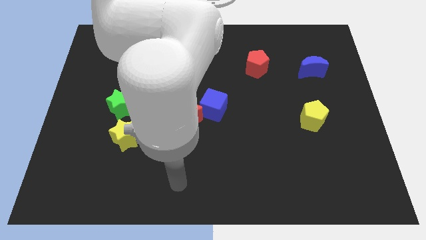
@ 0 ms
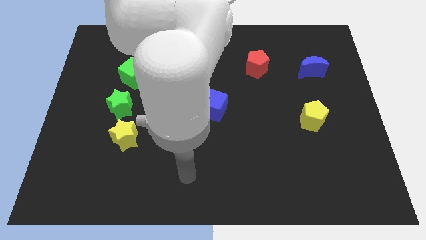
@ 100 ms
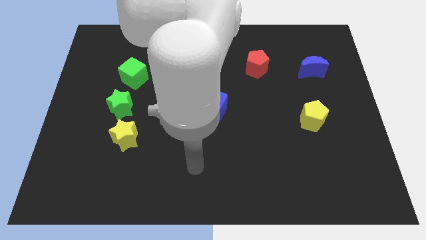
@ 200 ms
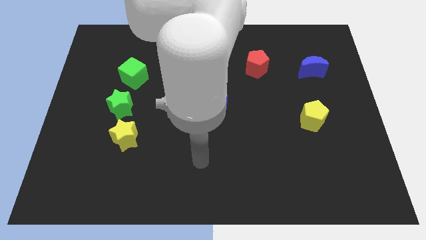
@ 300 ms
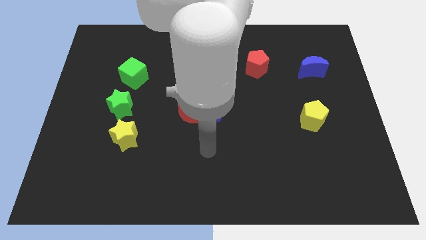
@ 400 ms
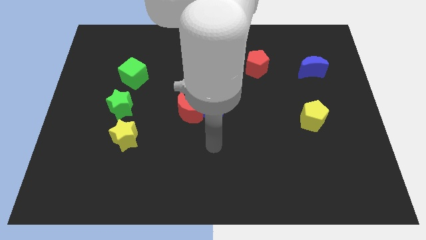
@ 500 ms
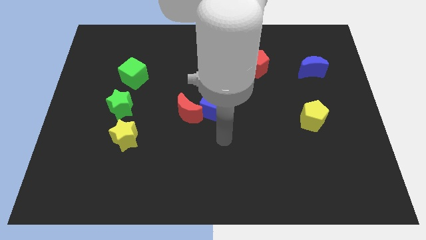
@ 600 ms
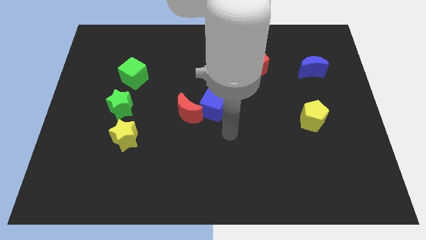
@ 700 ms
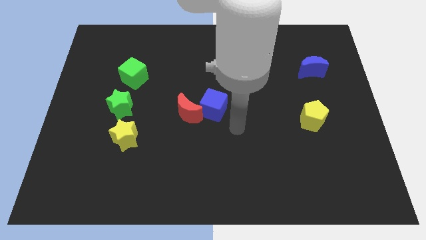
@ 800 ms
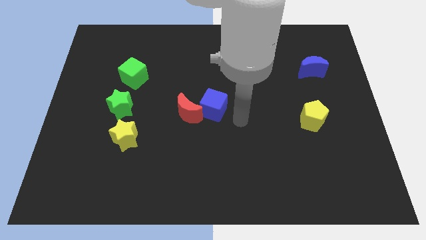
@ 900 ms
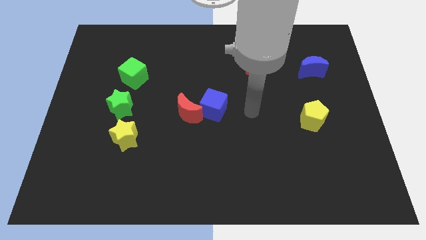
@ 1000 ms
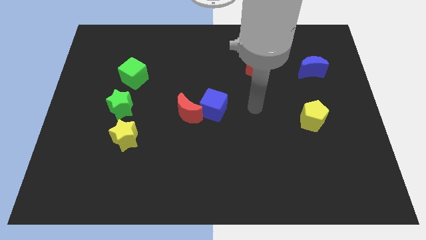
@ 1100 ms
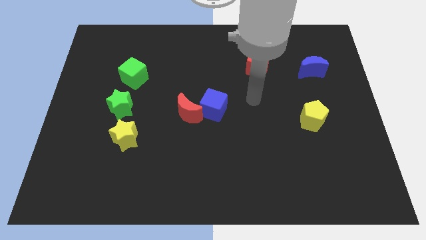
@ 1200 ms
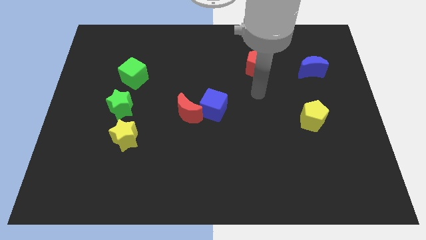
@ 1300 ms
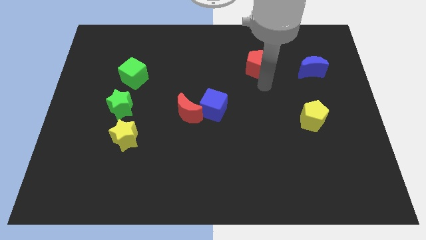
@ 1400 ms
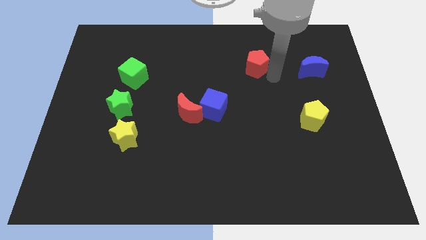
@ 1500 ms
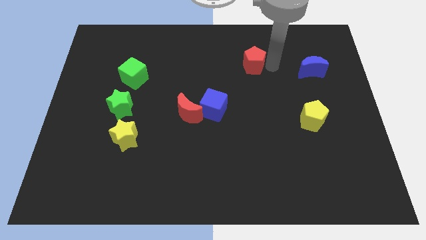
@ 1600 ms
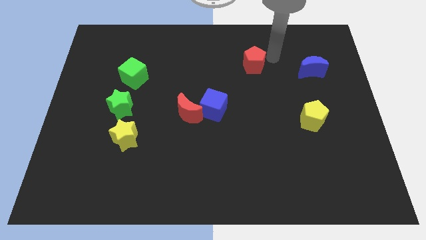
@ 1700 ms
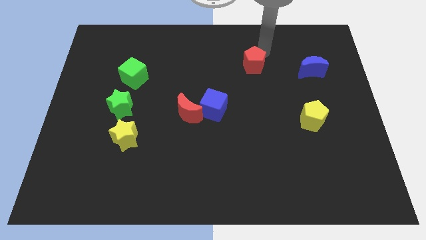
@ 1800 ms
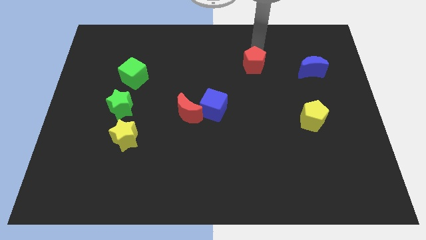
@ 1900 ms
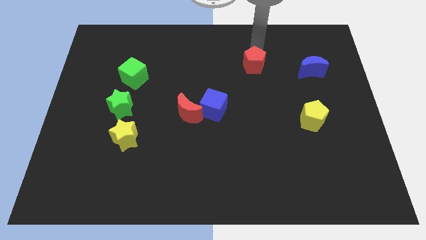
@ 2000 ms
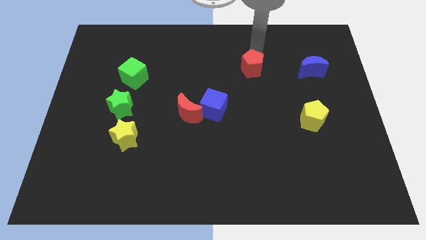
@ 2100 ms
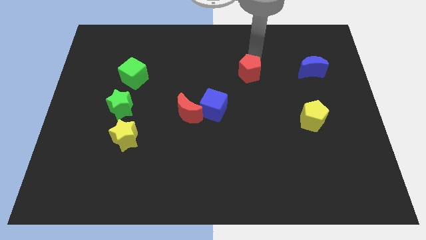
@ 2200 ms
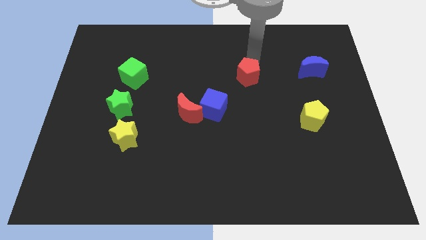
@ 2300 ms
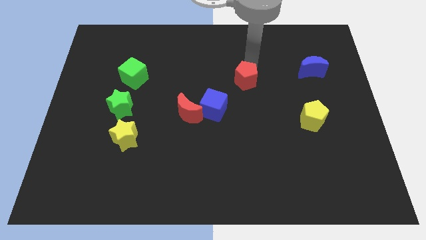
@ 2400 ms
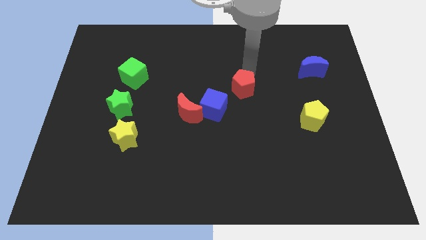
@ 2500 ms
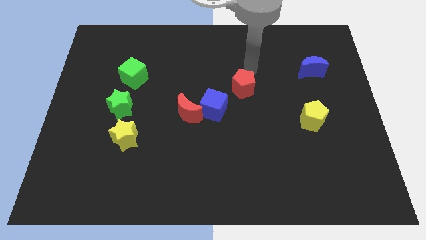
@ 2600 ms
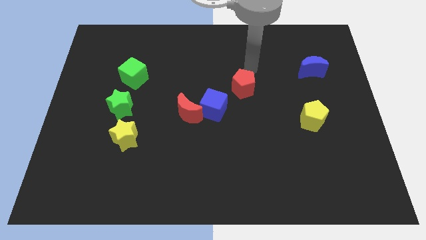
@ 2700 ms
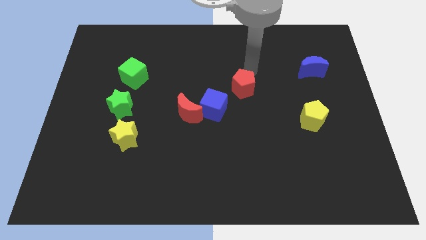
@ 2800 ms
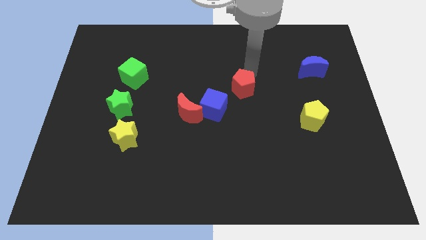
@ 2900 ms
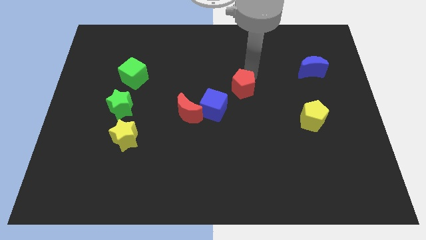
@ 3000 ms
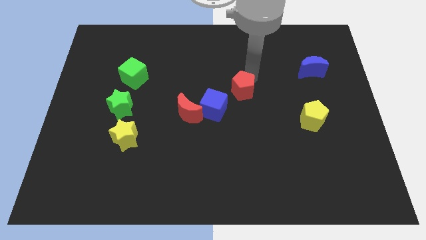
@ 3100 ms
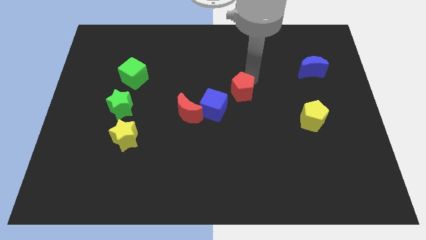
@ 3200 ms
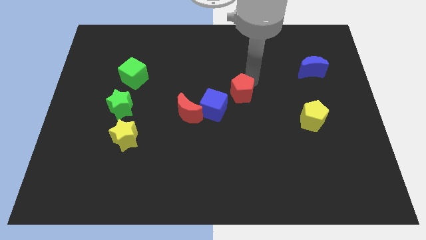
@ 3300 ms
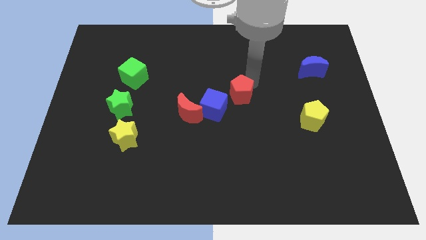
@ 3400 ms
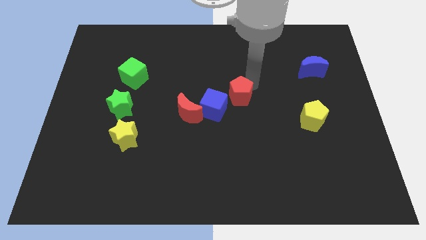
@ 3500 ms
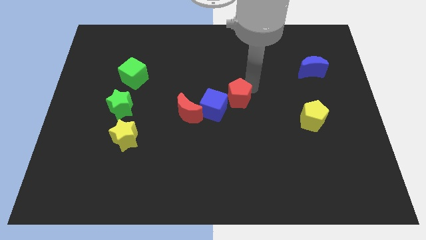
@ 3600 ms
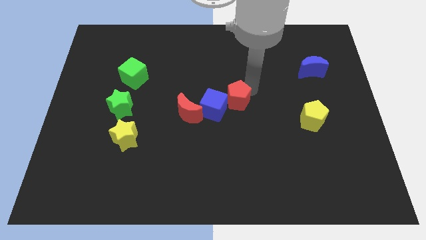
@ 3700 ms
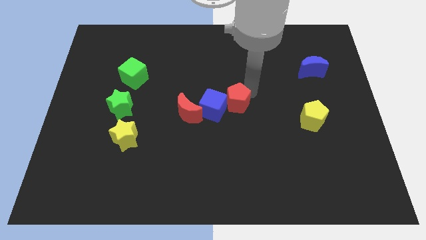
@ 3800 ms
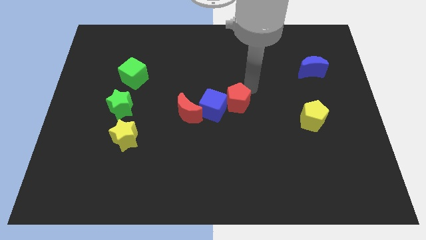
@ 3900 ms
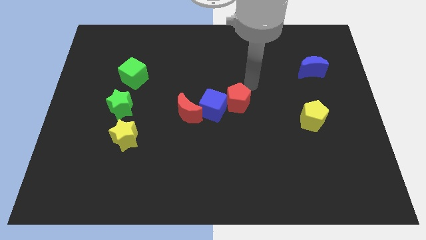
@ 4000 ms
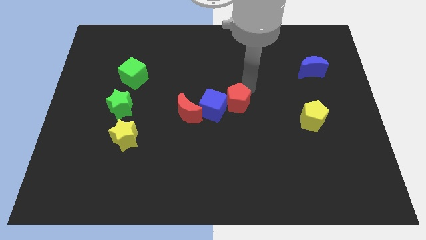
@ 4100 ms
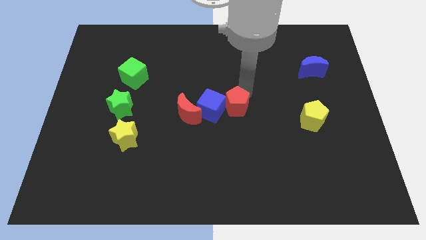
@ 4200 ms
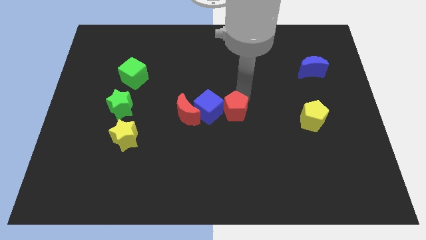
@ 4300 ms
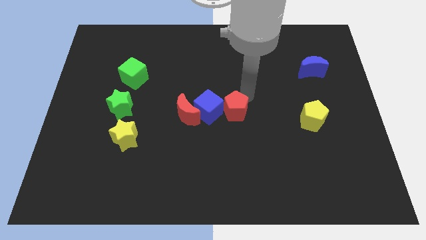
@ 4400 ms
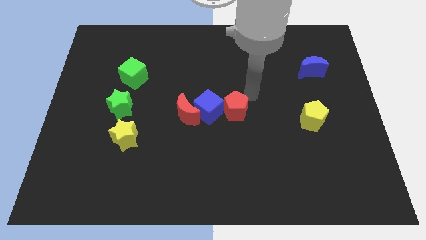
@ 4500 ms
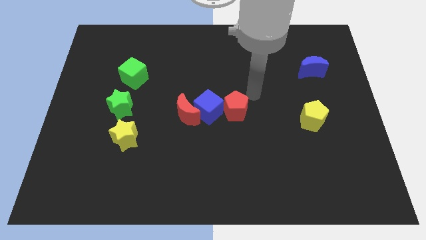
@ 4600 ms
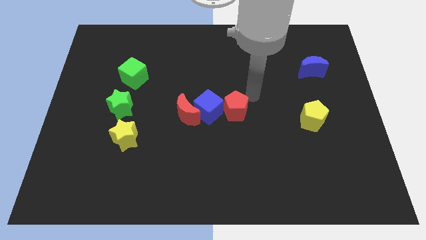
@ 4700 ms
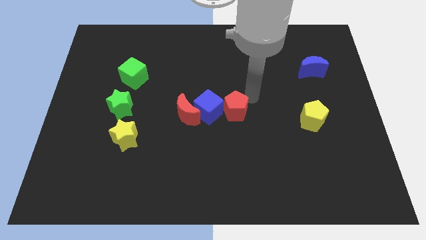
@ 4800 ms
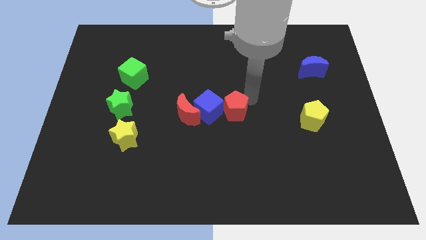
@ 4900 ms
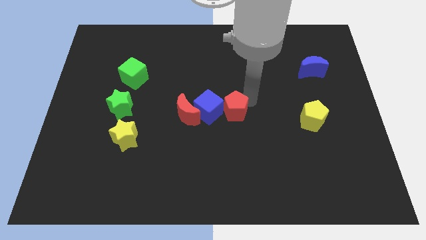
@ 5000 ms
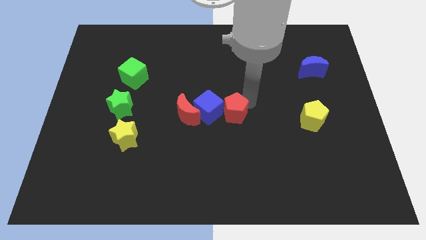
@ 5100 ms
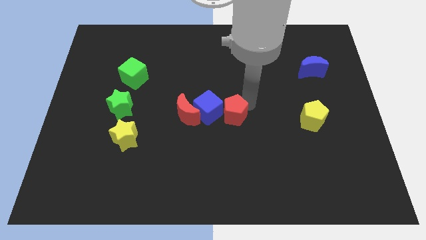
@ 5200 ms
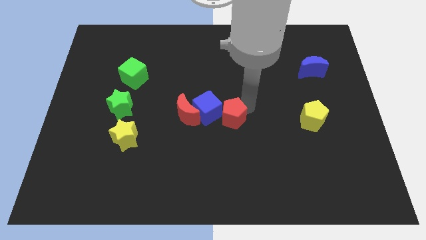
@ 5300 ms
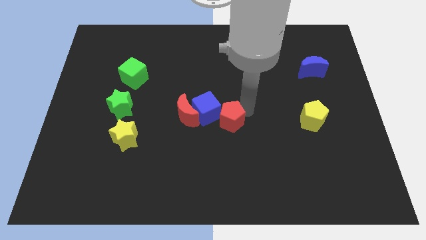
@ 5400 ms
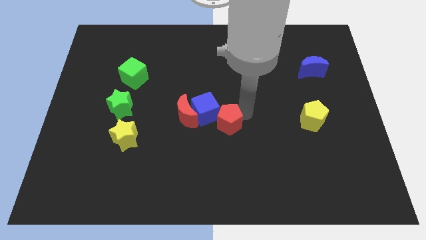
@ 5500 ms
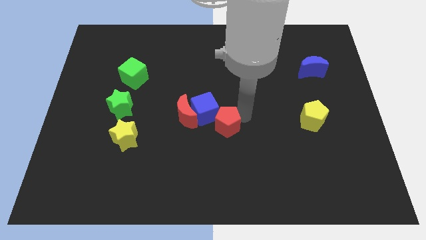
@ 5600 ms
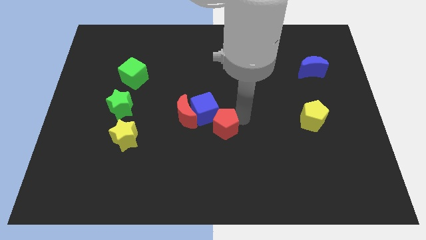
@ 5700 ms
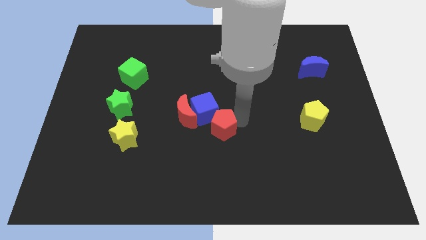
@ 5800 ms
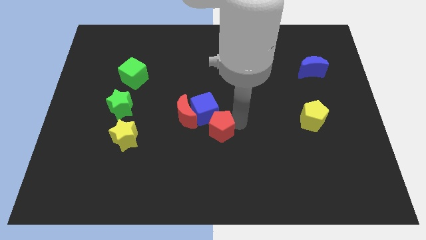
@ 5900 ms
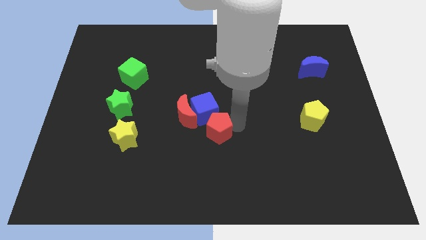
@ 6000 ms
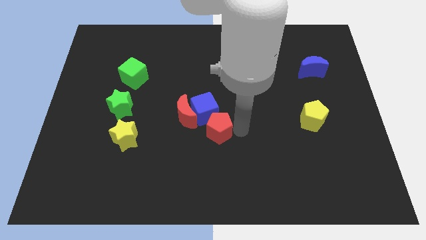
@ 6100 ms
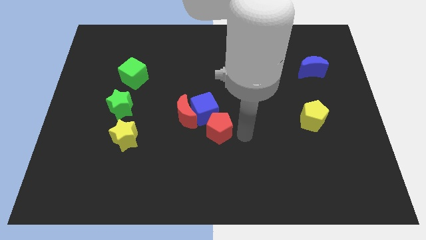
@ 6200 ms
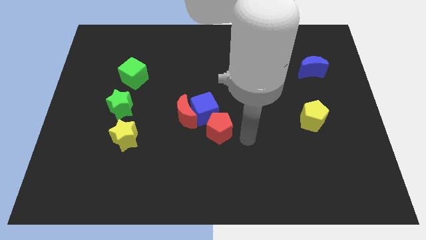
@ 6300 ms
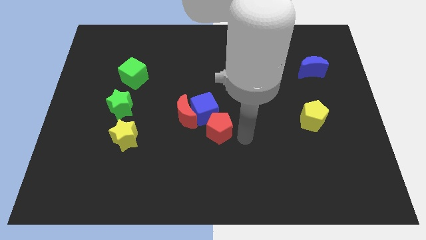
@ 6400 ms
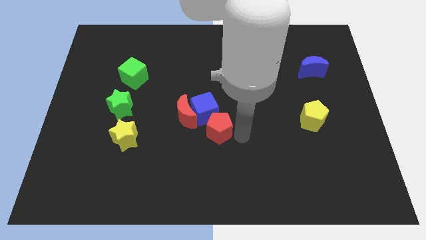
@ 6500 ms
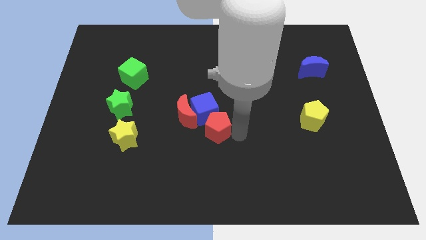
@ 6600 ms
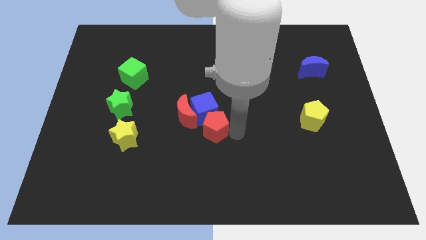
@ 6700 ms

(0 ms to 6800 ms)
push the red pentagon diagonally downwards and to the left

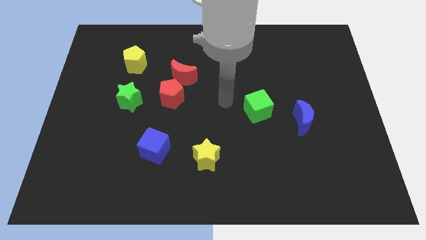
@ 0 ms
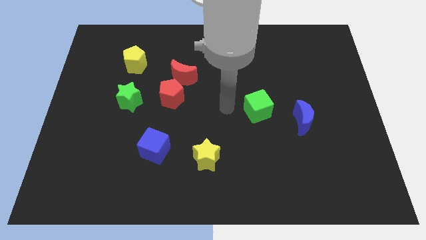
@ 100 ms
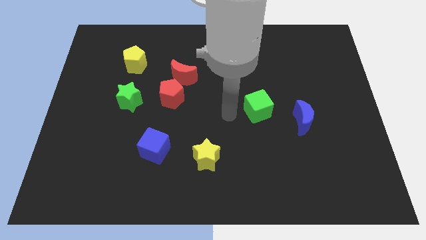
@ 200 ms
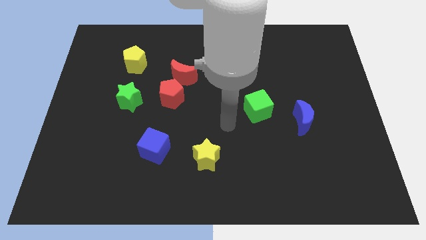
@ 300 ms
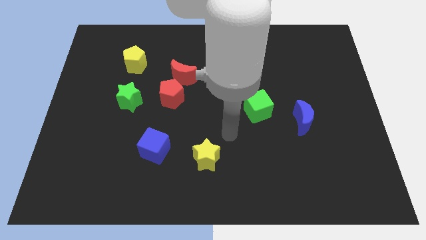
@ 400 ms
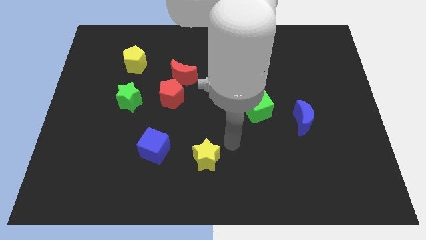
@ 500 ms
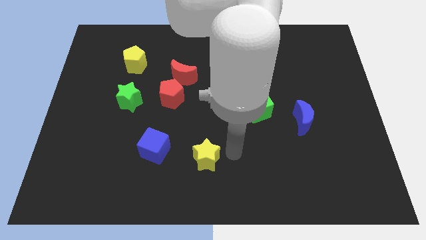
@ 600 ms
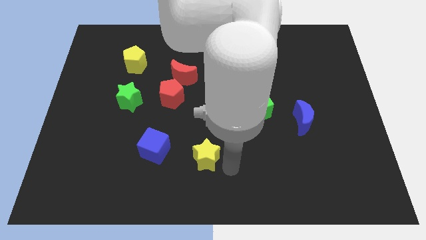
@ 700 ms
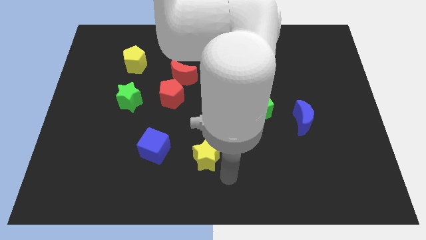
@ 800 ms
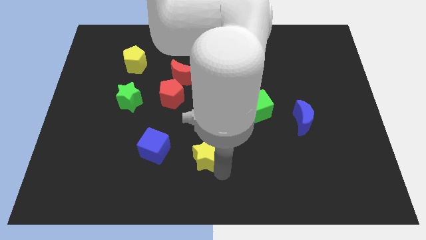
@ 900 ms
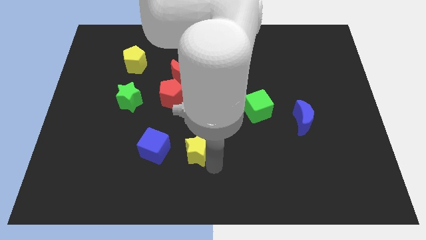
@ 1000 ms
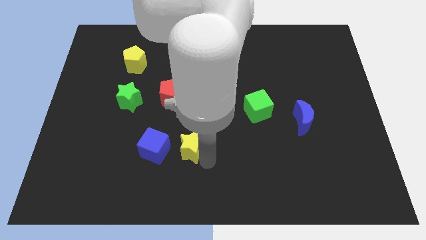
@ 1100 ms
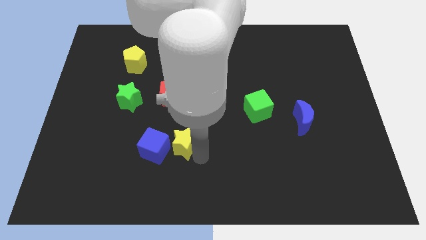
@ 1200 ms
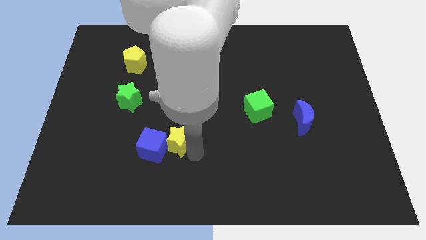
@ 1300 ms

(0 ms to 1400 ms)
slightly move the yellow star up and left diagonally
